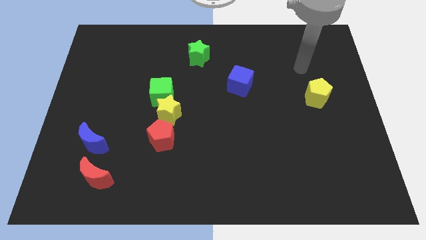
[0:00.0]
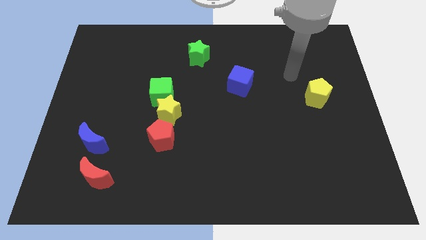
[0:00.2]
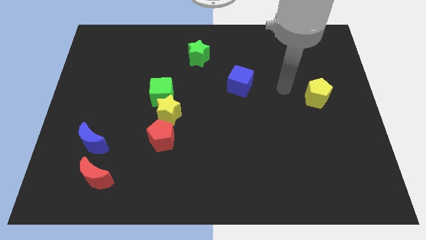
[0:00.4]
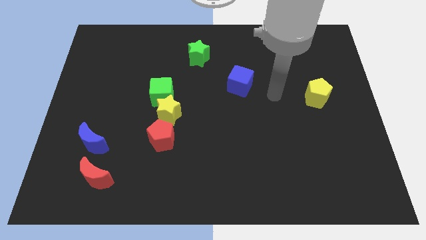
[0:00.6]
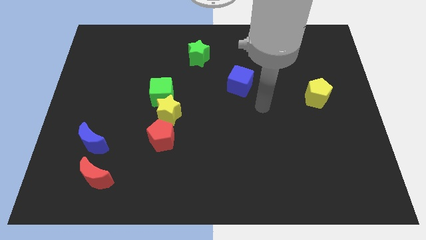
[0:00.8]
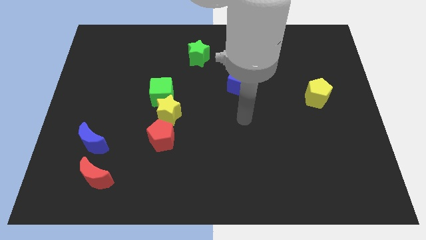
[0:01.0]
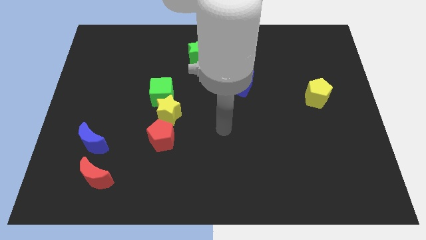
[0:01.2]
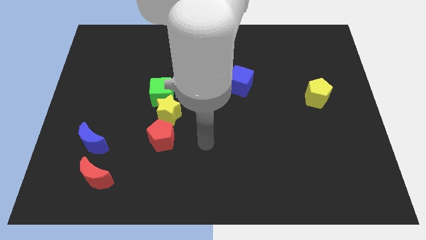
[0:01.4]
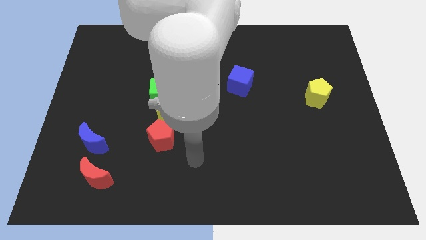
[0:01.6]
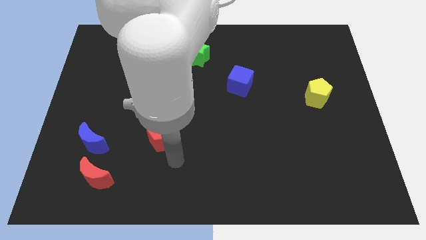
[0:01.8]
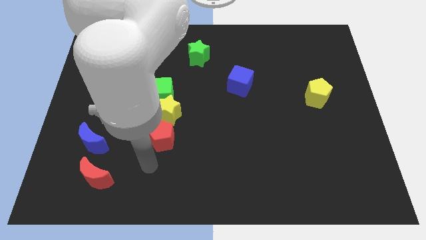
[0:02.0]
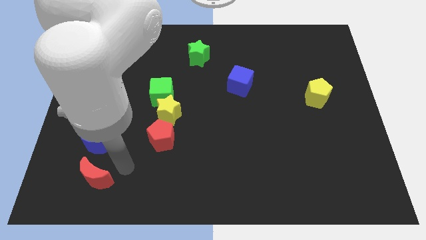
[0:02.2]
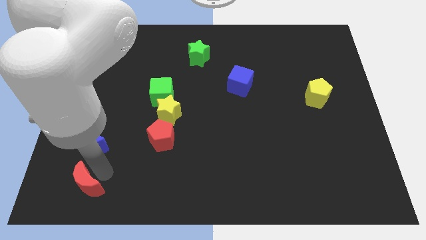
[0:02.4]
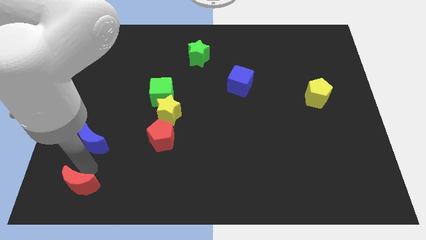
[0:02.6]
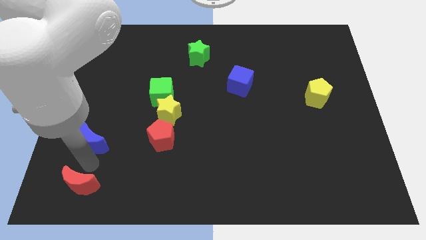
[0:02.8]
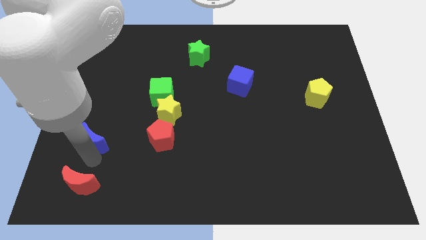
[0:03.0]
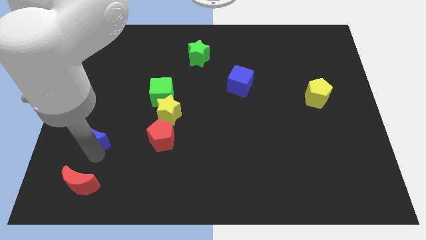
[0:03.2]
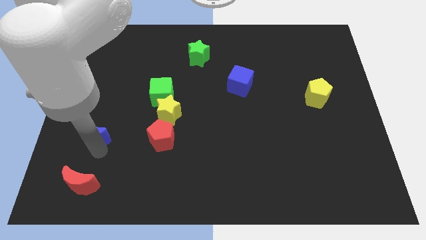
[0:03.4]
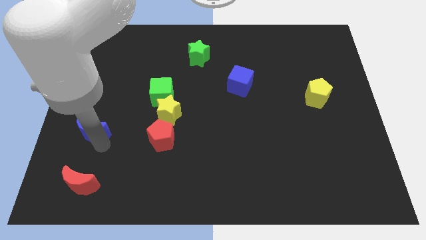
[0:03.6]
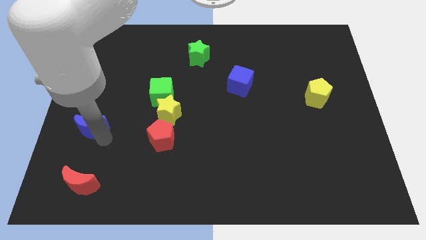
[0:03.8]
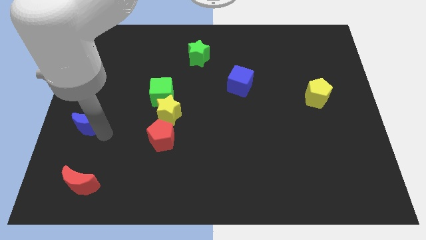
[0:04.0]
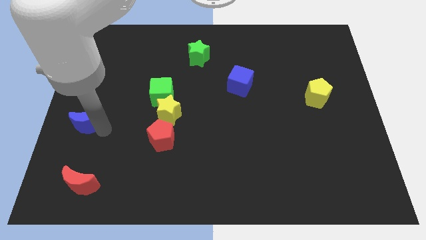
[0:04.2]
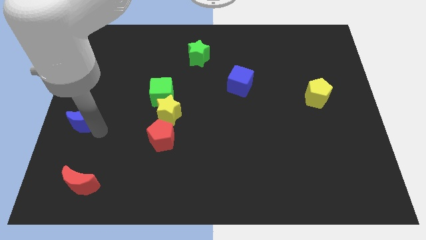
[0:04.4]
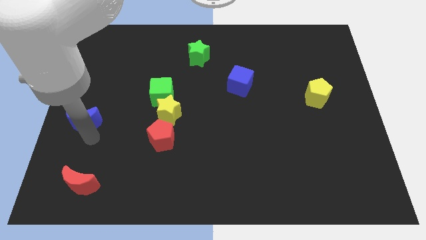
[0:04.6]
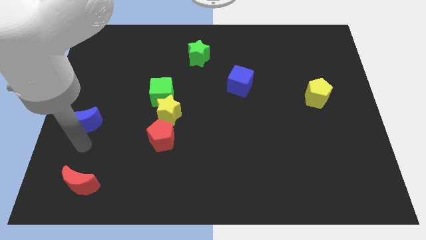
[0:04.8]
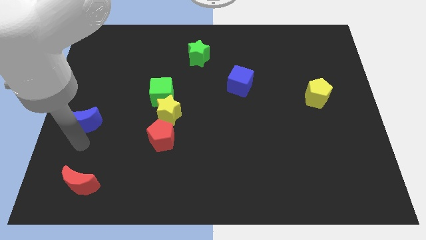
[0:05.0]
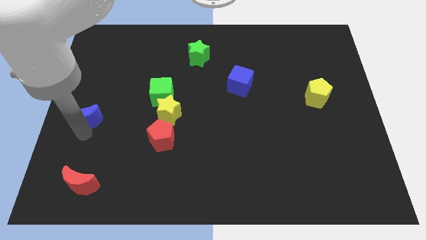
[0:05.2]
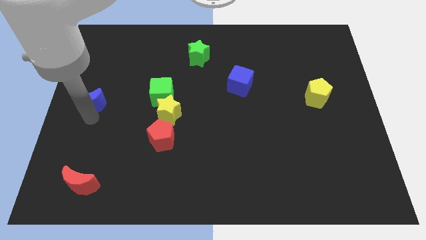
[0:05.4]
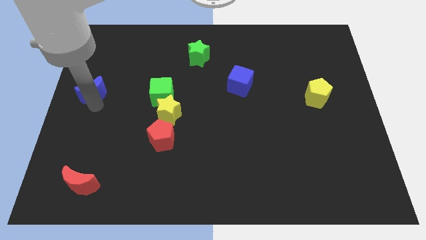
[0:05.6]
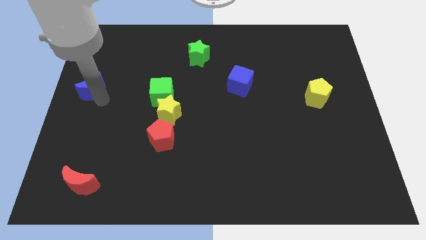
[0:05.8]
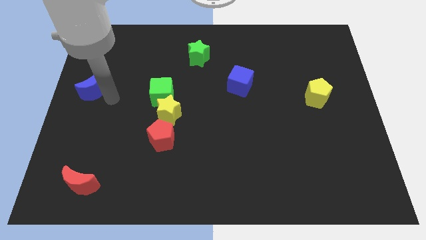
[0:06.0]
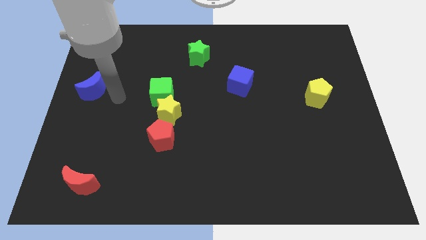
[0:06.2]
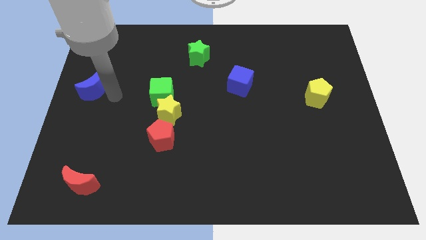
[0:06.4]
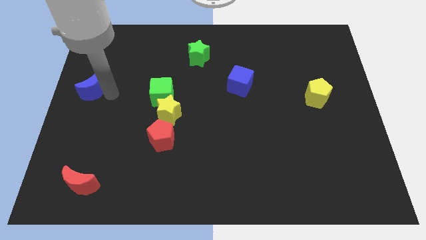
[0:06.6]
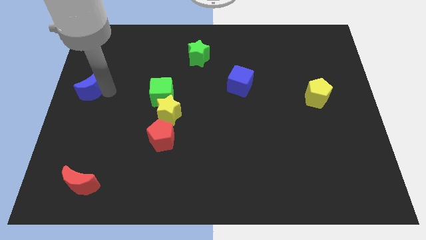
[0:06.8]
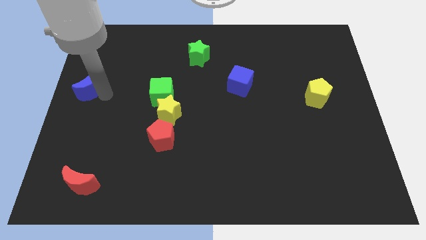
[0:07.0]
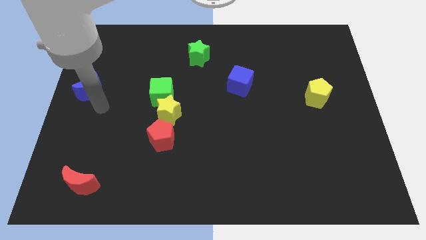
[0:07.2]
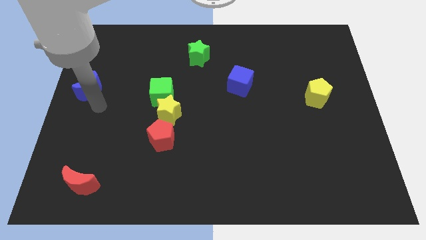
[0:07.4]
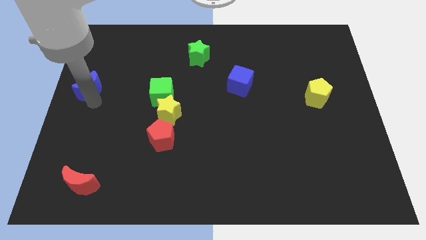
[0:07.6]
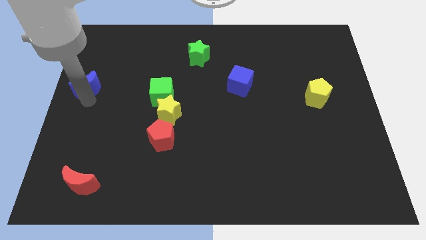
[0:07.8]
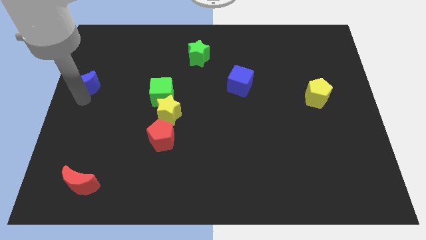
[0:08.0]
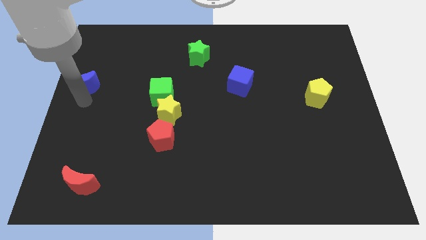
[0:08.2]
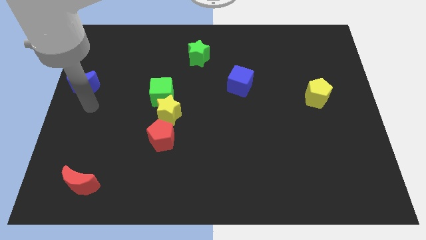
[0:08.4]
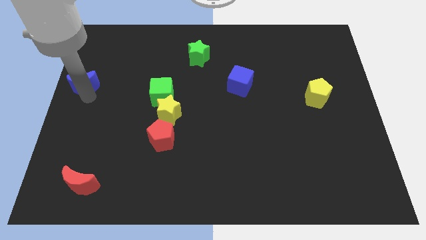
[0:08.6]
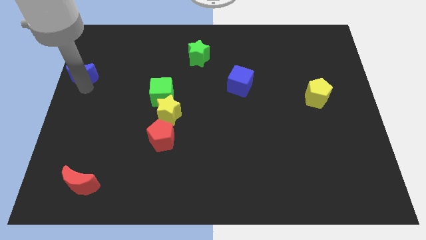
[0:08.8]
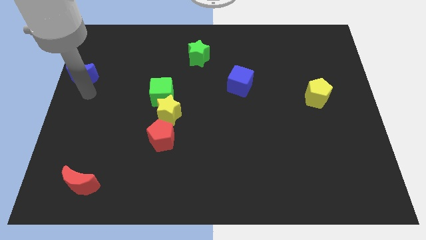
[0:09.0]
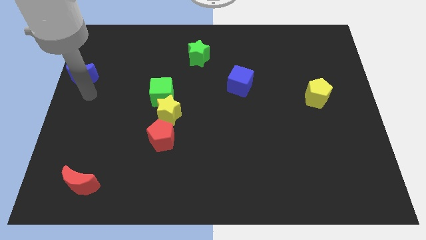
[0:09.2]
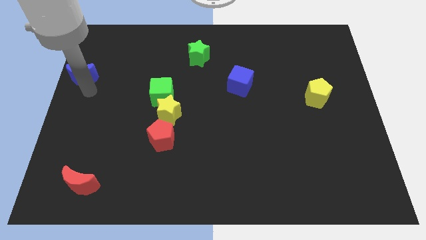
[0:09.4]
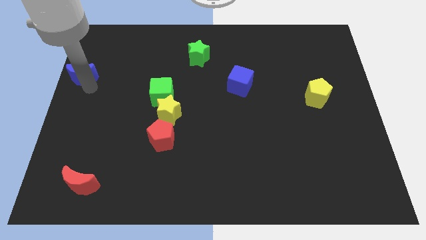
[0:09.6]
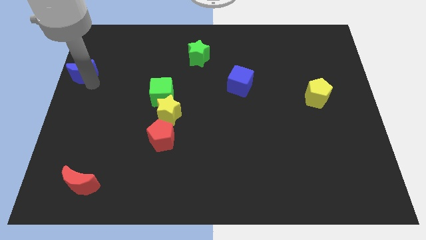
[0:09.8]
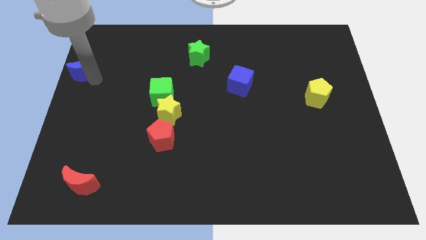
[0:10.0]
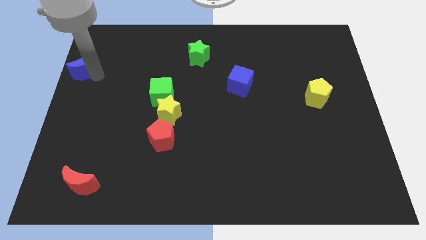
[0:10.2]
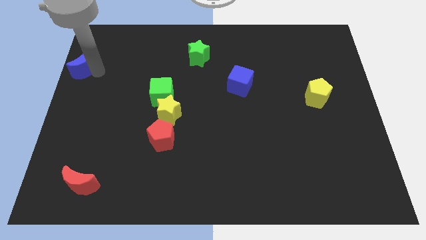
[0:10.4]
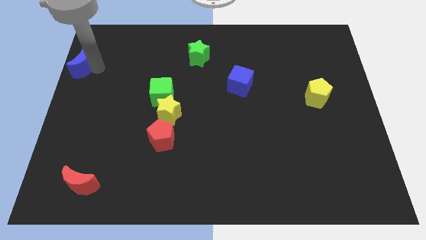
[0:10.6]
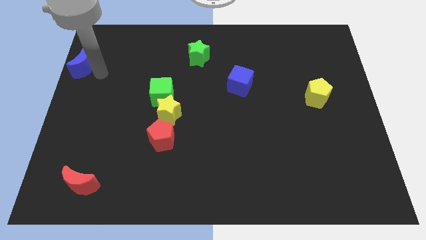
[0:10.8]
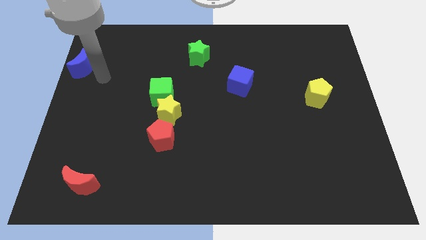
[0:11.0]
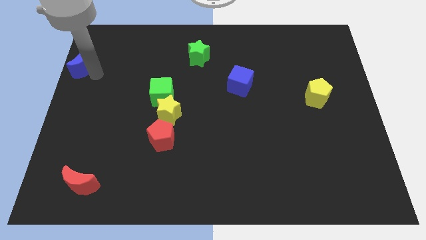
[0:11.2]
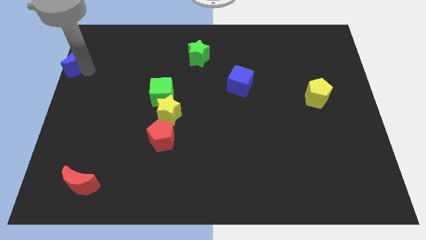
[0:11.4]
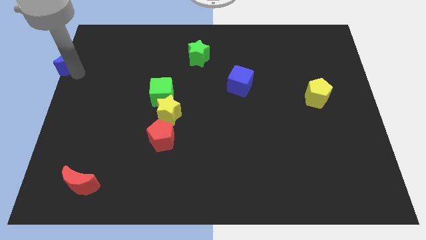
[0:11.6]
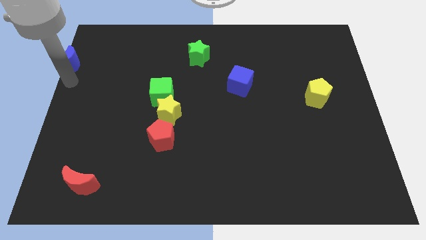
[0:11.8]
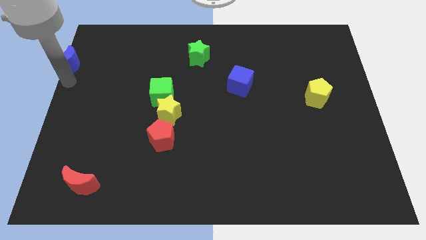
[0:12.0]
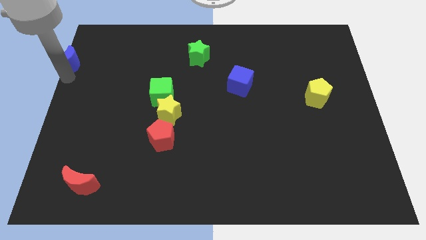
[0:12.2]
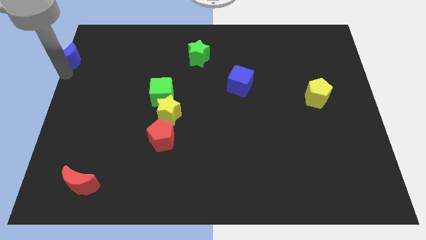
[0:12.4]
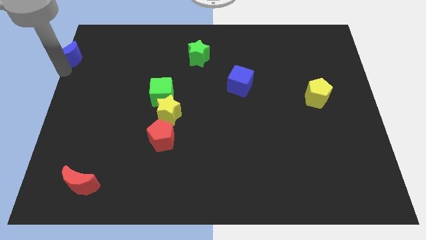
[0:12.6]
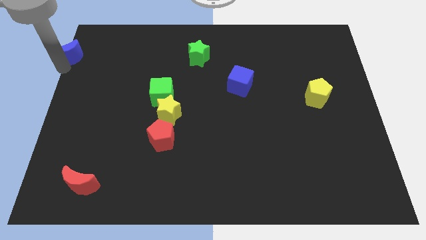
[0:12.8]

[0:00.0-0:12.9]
move the blue moon to the upper left corner

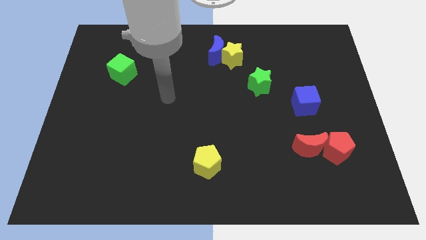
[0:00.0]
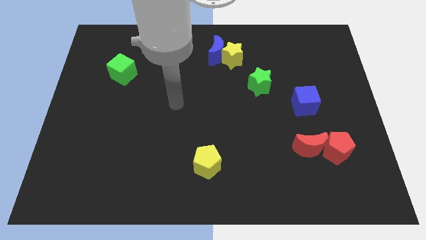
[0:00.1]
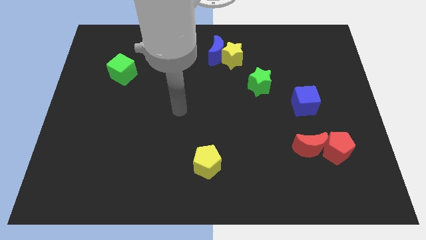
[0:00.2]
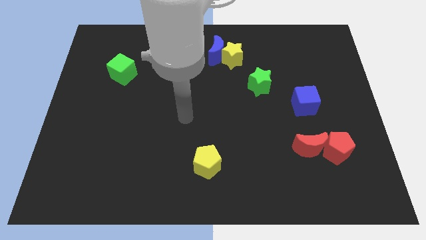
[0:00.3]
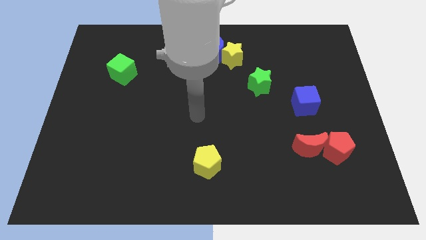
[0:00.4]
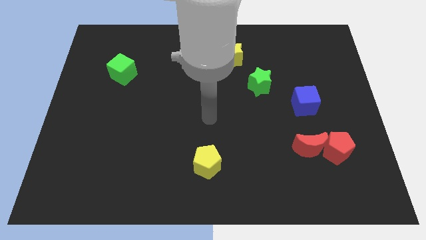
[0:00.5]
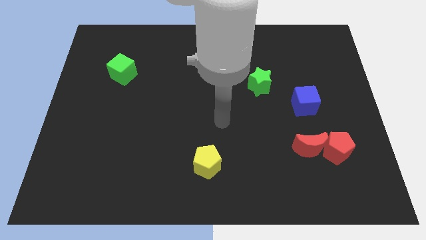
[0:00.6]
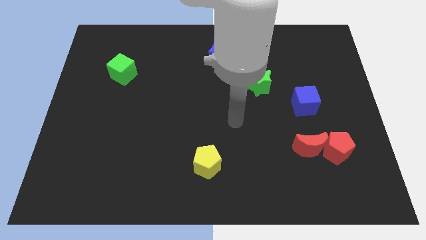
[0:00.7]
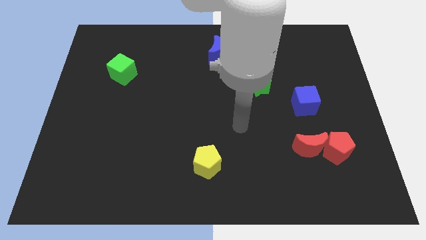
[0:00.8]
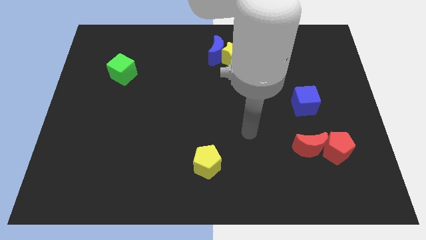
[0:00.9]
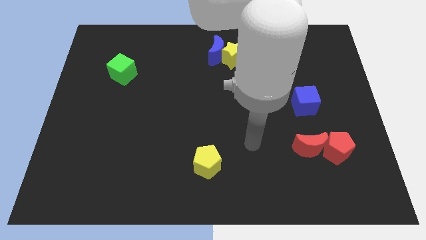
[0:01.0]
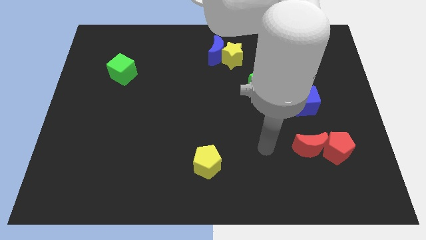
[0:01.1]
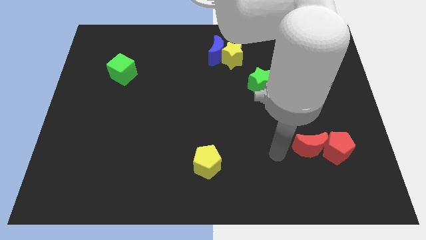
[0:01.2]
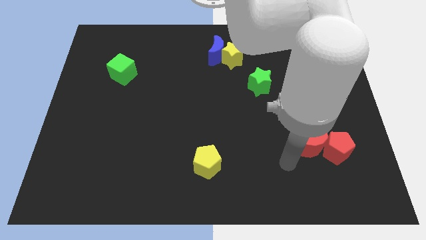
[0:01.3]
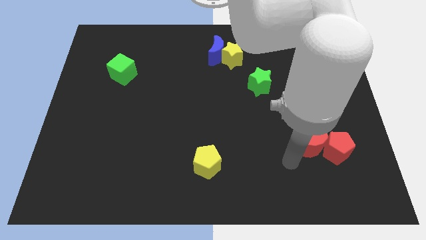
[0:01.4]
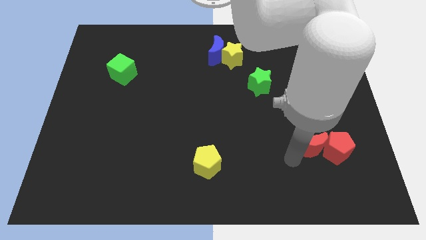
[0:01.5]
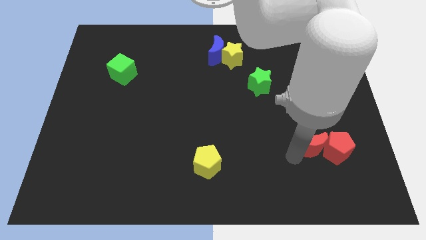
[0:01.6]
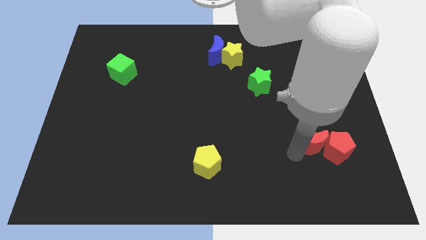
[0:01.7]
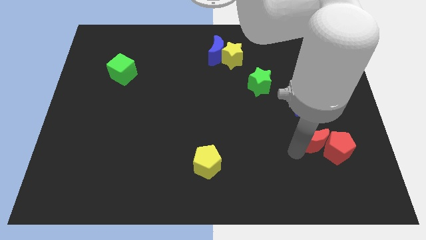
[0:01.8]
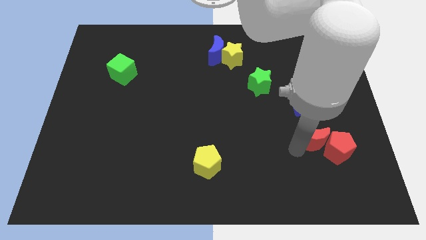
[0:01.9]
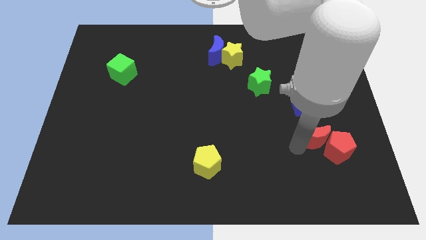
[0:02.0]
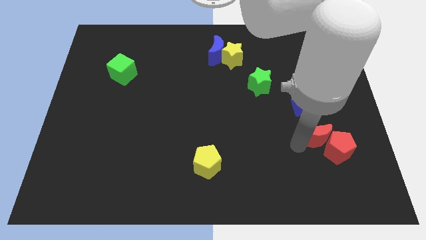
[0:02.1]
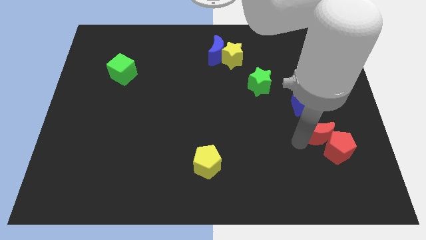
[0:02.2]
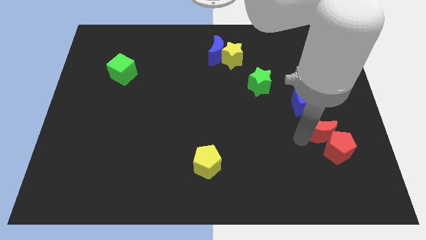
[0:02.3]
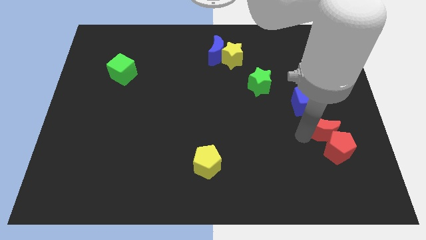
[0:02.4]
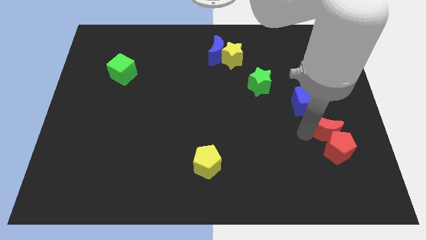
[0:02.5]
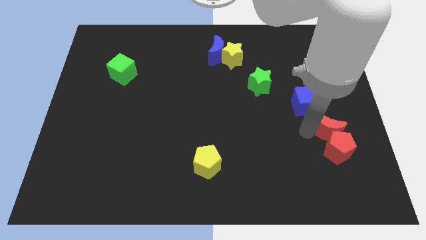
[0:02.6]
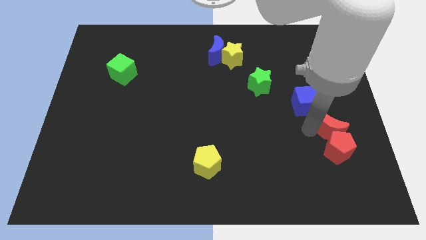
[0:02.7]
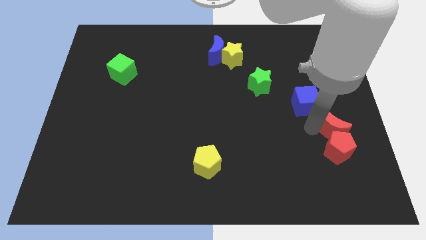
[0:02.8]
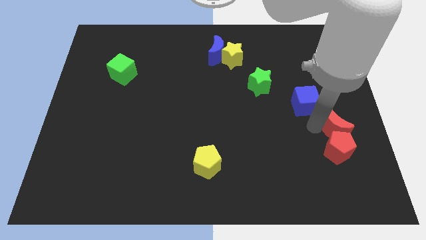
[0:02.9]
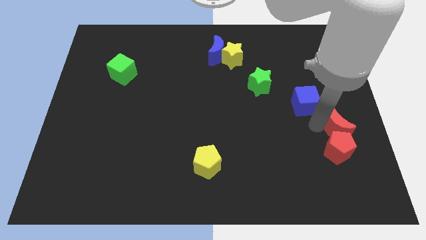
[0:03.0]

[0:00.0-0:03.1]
move the red moon to the right side of the board
